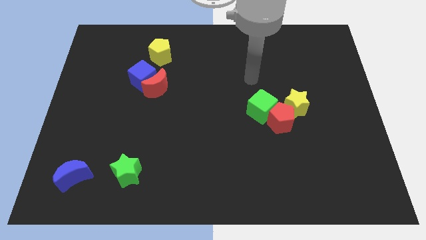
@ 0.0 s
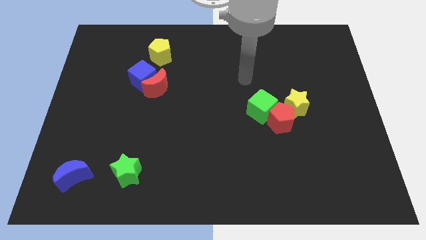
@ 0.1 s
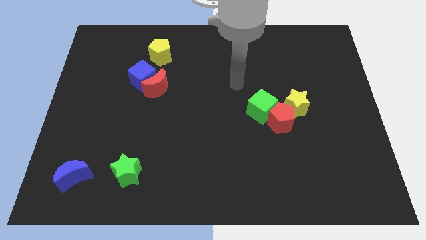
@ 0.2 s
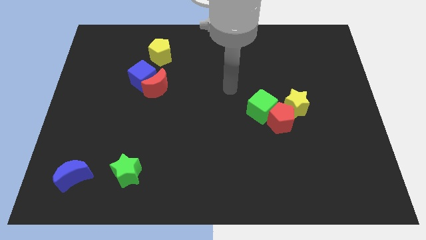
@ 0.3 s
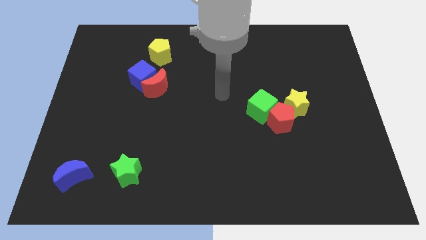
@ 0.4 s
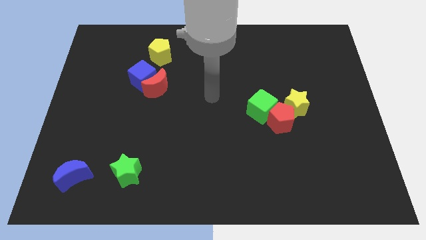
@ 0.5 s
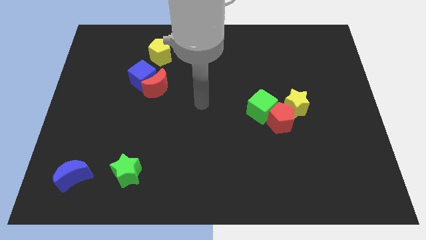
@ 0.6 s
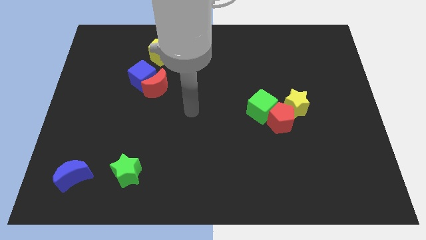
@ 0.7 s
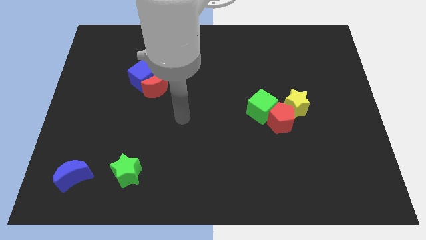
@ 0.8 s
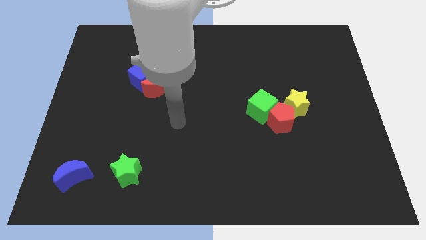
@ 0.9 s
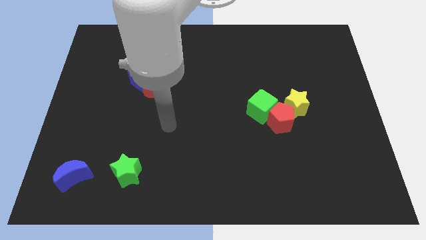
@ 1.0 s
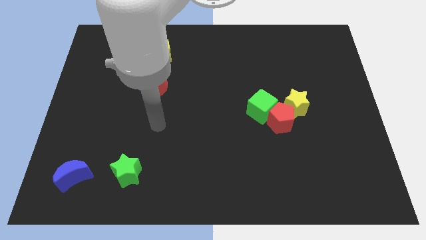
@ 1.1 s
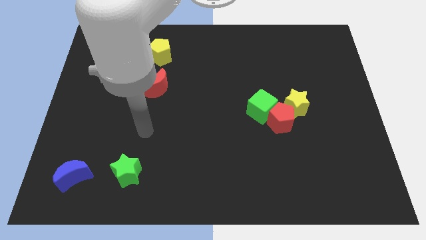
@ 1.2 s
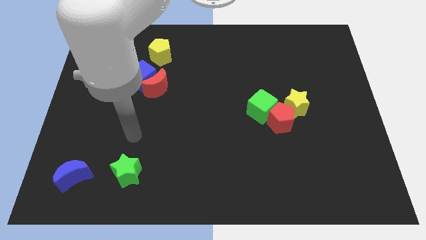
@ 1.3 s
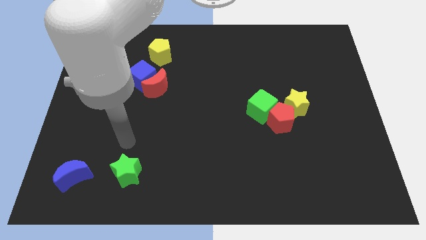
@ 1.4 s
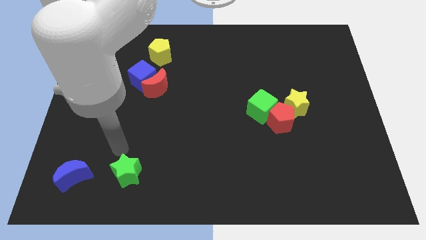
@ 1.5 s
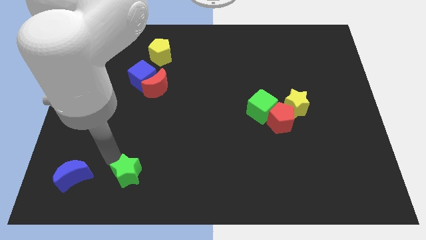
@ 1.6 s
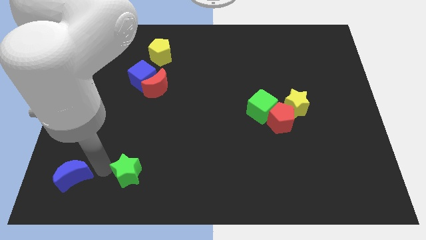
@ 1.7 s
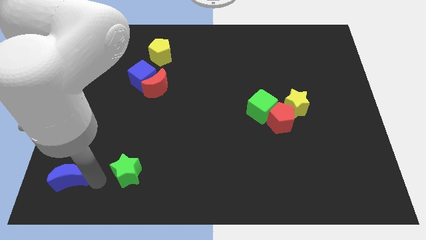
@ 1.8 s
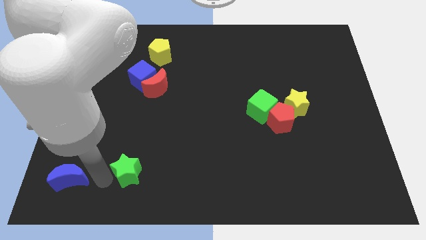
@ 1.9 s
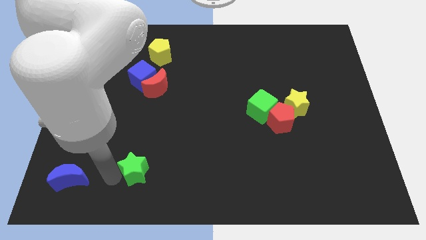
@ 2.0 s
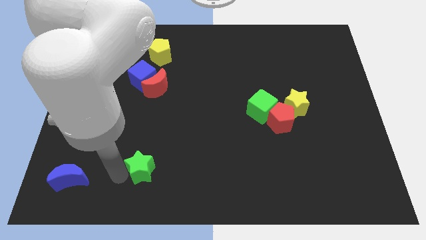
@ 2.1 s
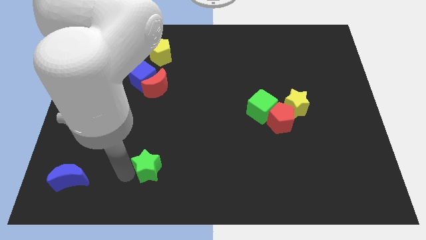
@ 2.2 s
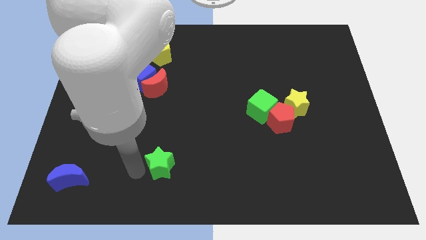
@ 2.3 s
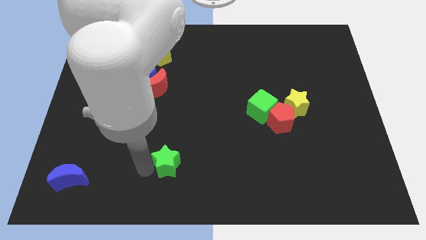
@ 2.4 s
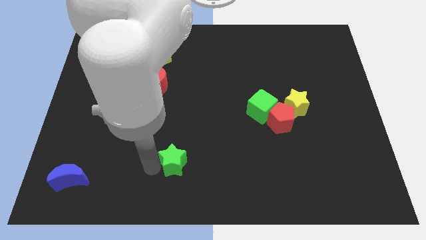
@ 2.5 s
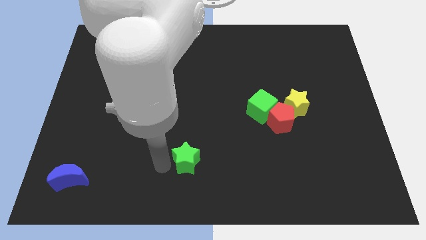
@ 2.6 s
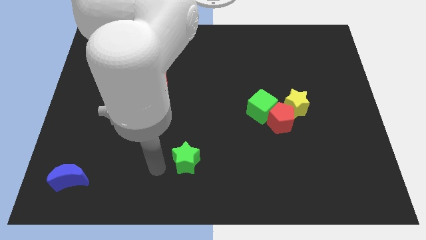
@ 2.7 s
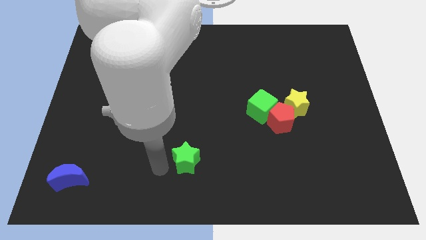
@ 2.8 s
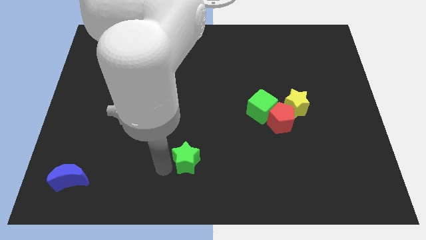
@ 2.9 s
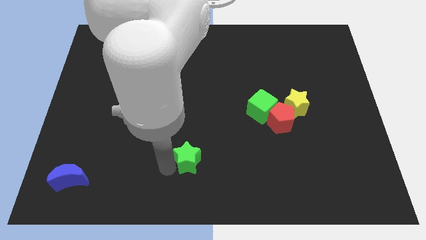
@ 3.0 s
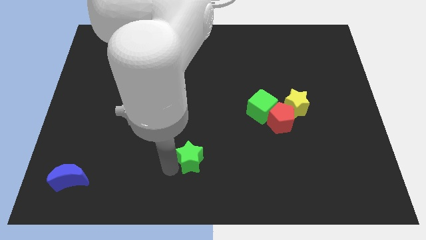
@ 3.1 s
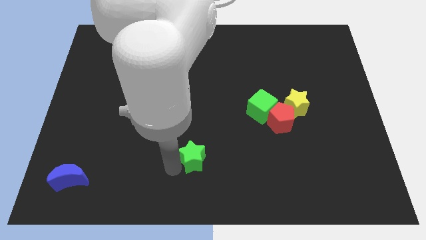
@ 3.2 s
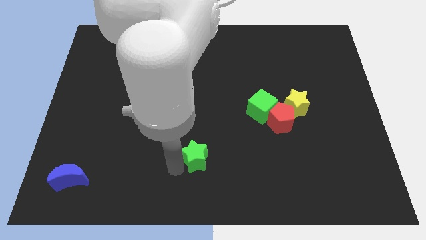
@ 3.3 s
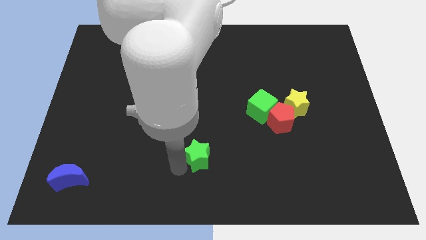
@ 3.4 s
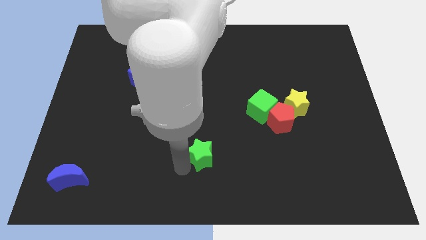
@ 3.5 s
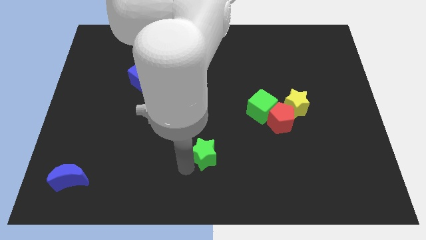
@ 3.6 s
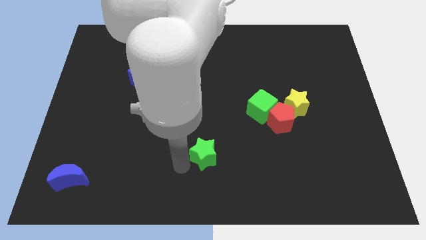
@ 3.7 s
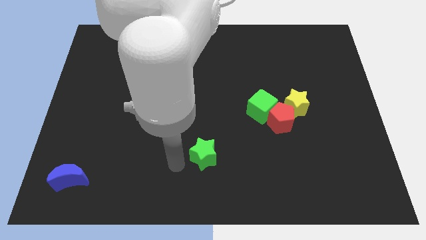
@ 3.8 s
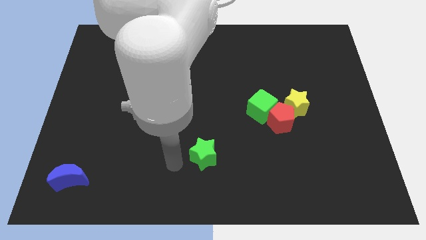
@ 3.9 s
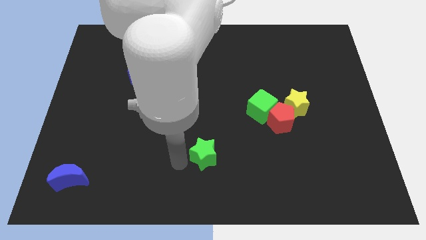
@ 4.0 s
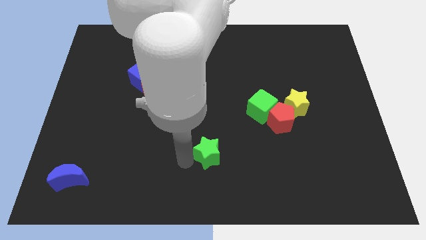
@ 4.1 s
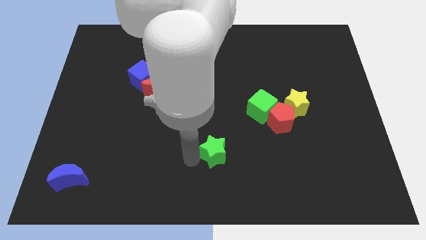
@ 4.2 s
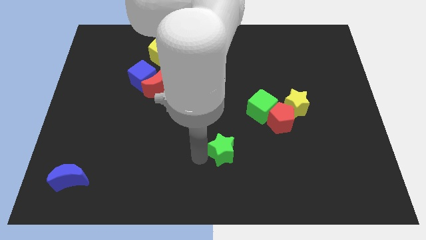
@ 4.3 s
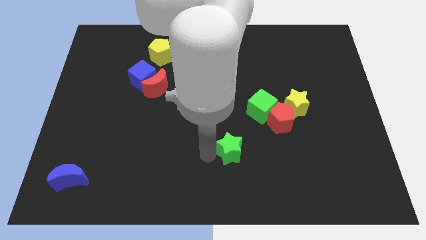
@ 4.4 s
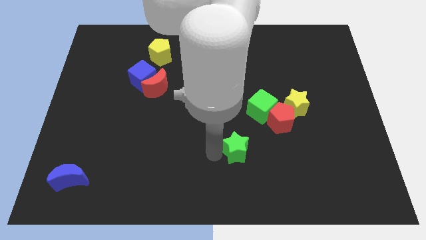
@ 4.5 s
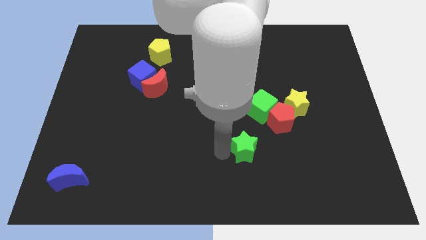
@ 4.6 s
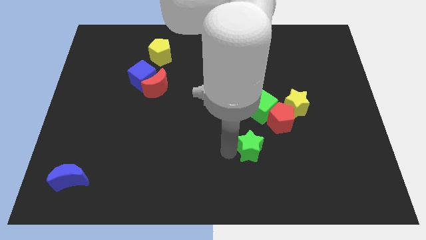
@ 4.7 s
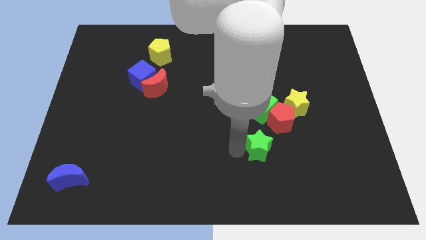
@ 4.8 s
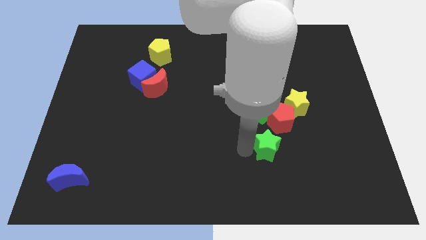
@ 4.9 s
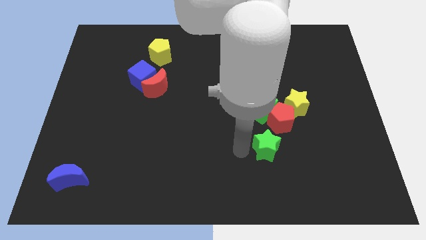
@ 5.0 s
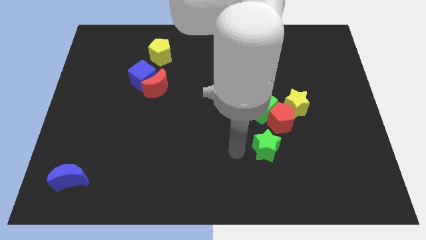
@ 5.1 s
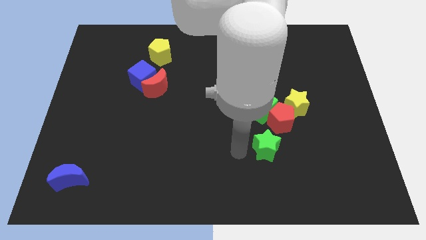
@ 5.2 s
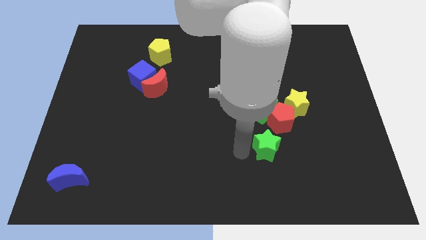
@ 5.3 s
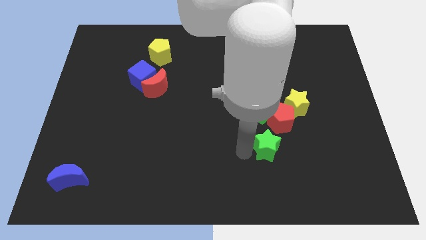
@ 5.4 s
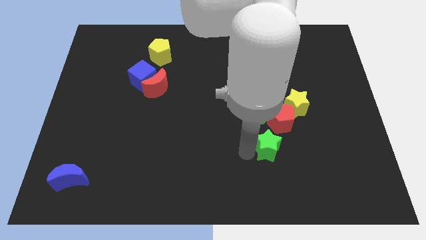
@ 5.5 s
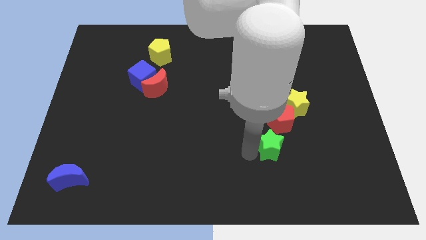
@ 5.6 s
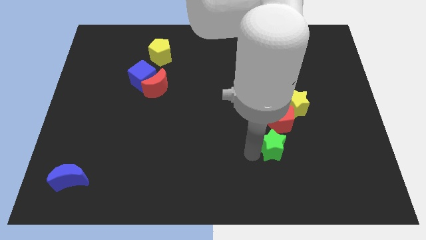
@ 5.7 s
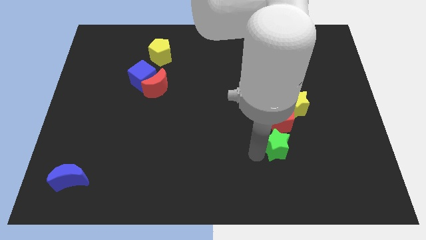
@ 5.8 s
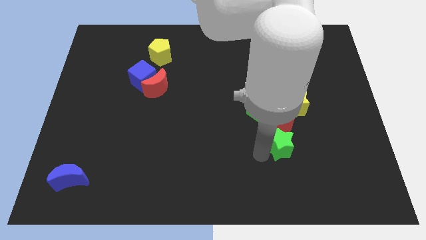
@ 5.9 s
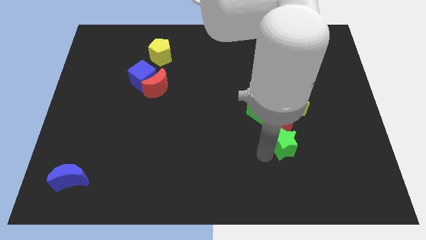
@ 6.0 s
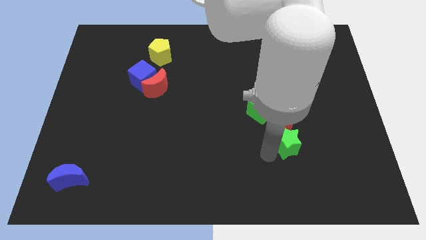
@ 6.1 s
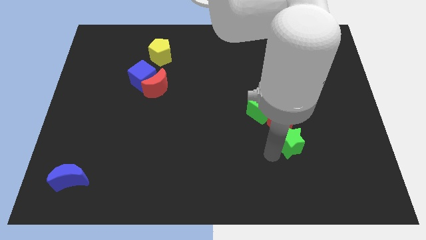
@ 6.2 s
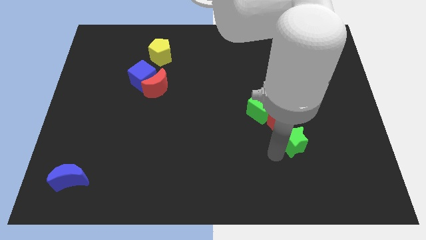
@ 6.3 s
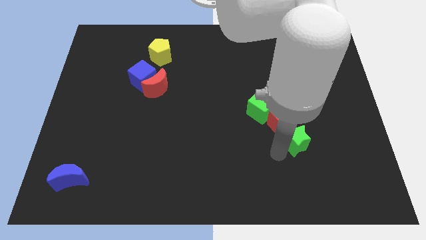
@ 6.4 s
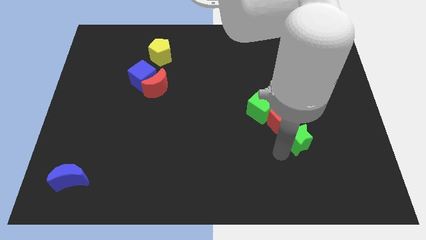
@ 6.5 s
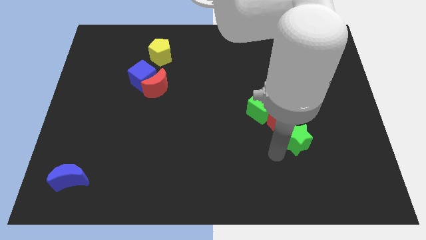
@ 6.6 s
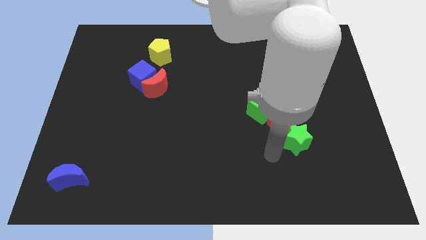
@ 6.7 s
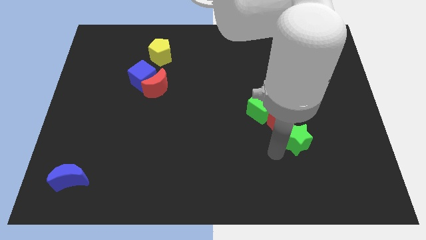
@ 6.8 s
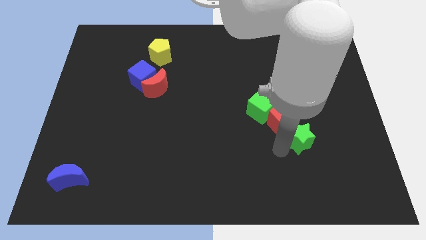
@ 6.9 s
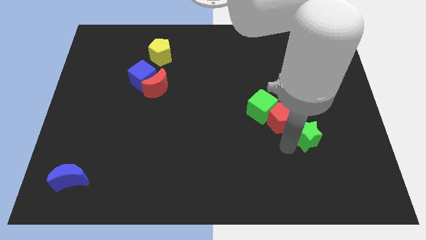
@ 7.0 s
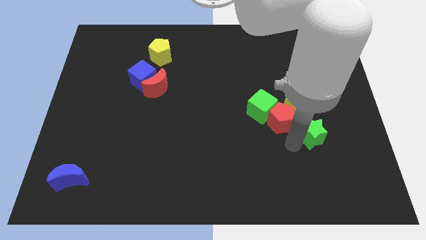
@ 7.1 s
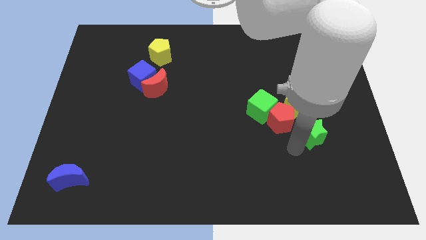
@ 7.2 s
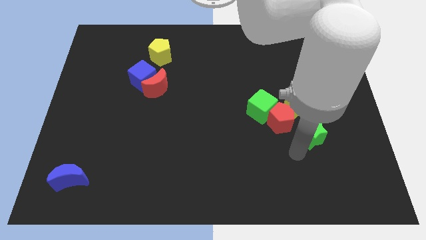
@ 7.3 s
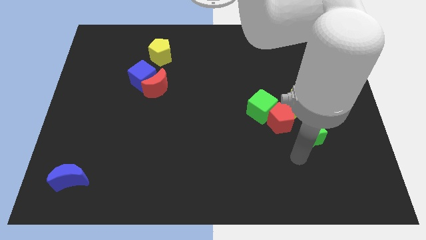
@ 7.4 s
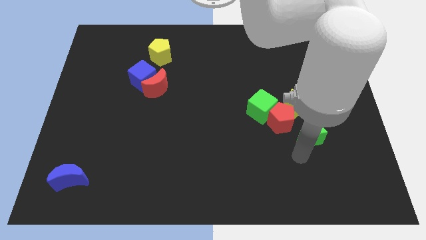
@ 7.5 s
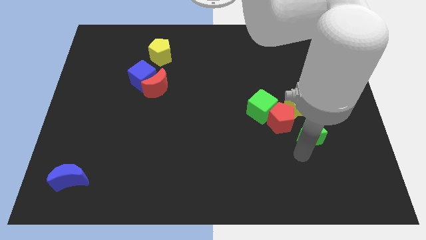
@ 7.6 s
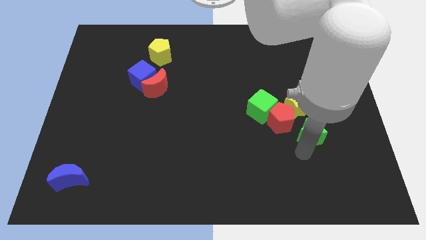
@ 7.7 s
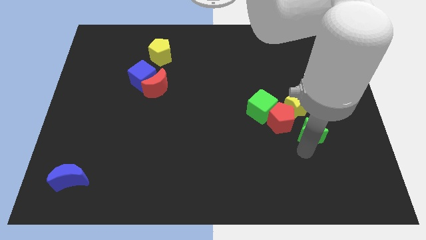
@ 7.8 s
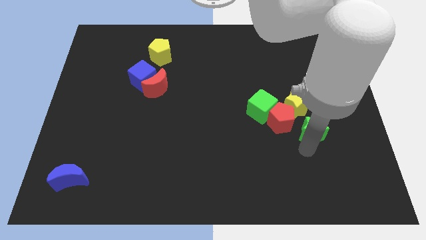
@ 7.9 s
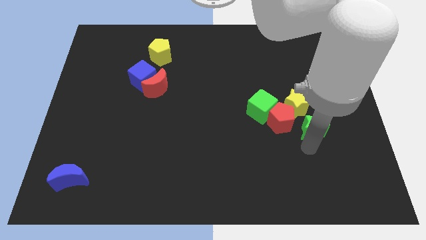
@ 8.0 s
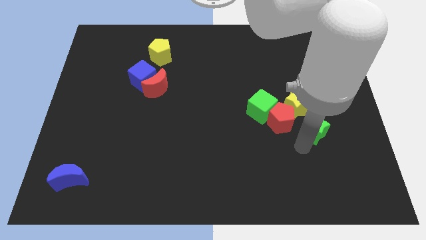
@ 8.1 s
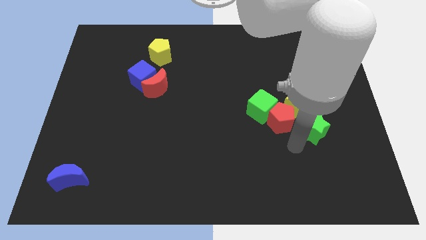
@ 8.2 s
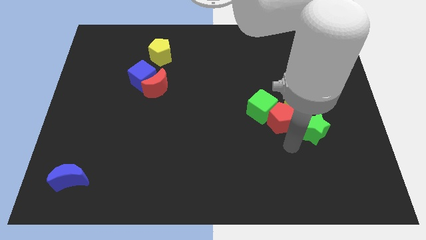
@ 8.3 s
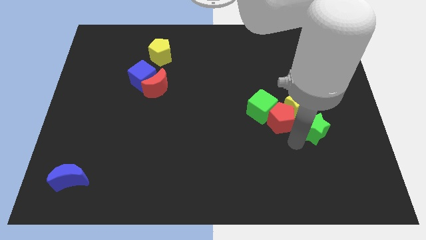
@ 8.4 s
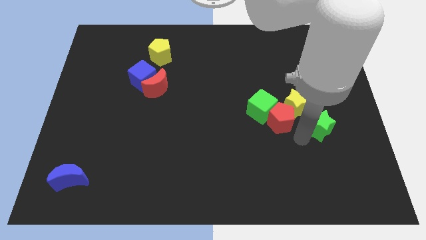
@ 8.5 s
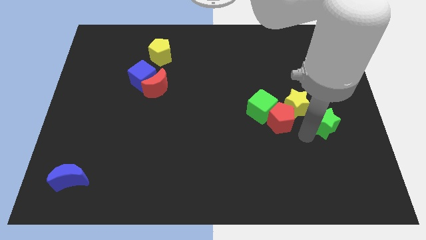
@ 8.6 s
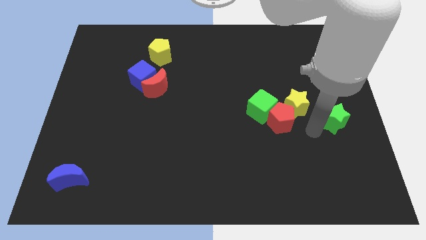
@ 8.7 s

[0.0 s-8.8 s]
slide the green star to the right side
